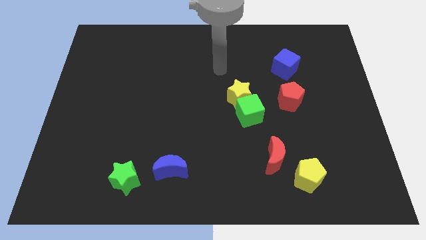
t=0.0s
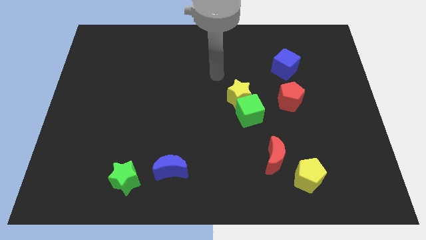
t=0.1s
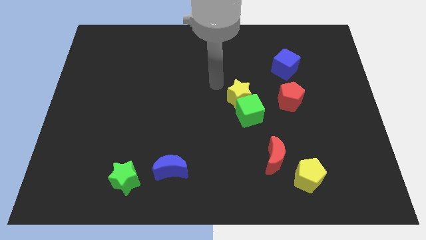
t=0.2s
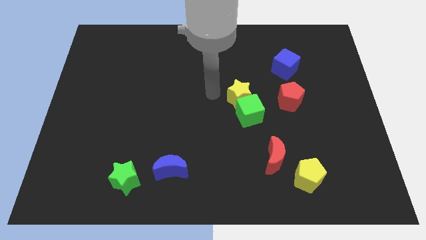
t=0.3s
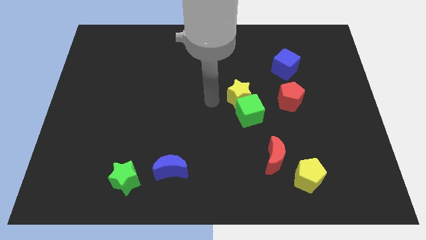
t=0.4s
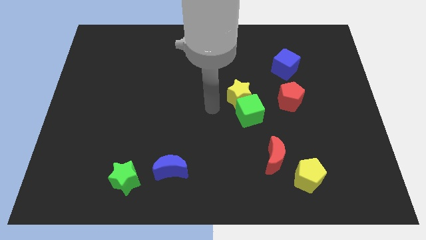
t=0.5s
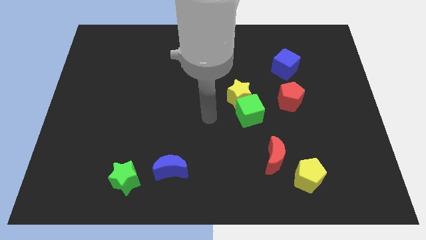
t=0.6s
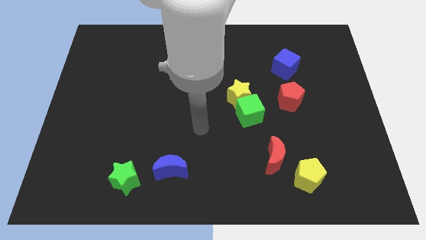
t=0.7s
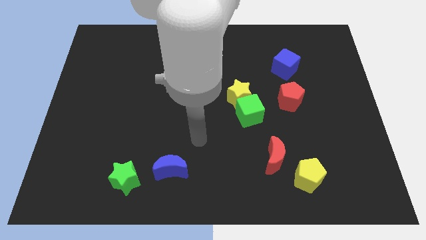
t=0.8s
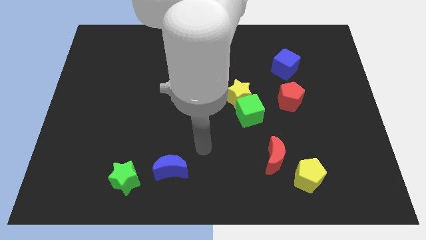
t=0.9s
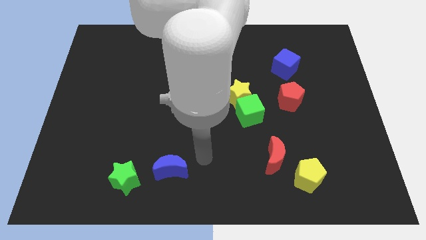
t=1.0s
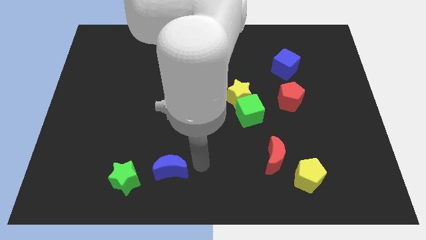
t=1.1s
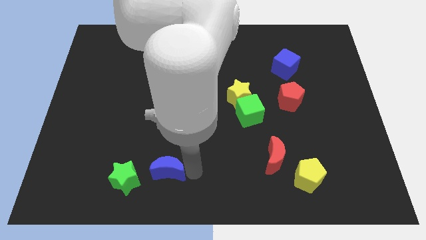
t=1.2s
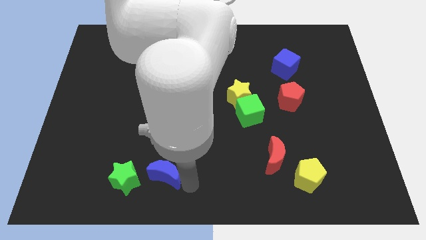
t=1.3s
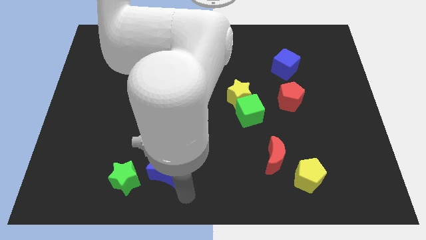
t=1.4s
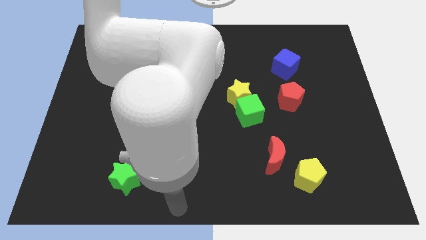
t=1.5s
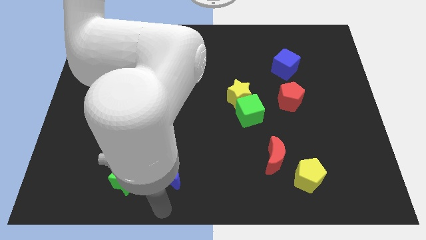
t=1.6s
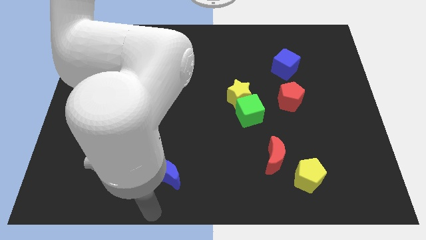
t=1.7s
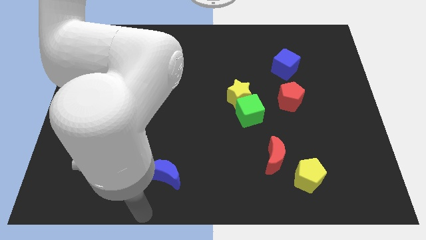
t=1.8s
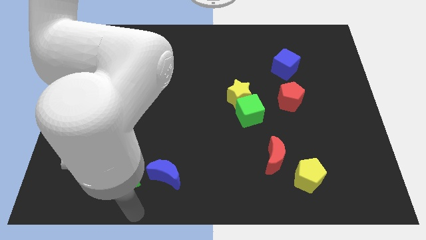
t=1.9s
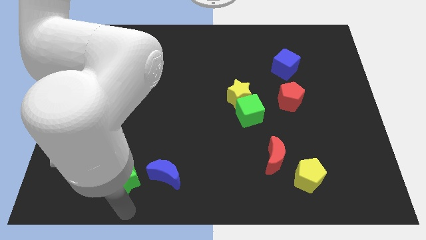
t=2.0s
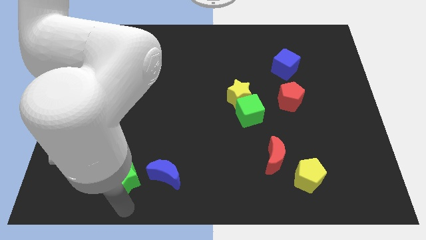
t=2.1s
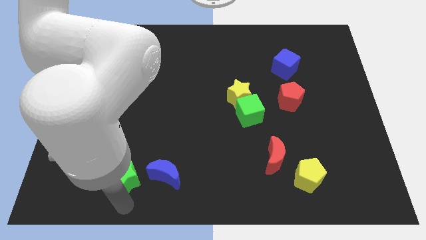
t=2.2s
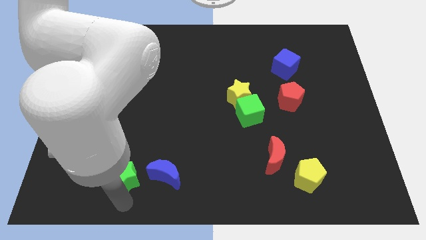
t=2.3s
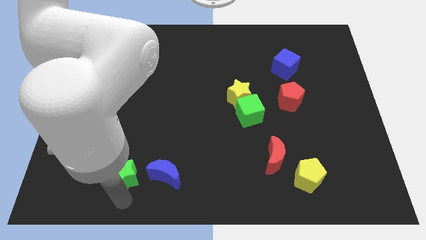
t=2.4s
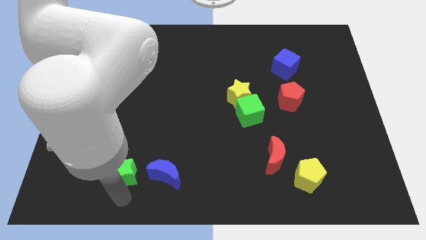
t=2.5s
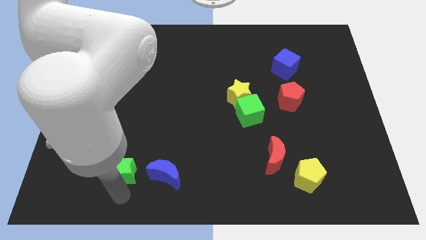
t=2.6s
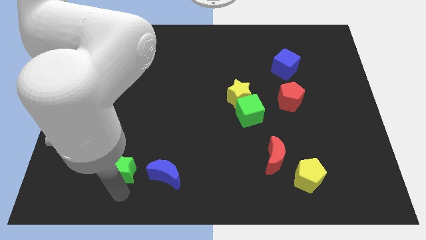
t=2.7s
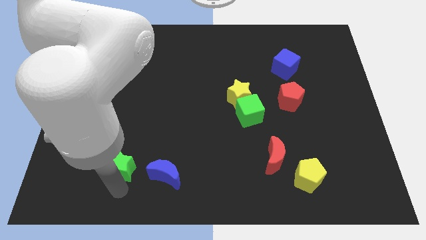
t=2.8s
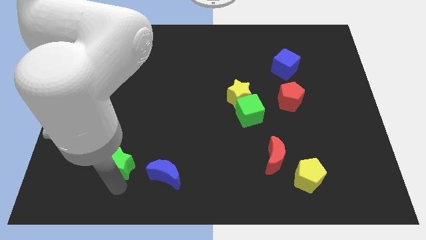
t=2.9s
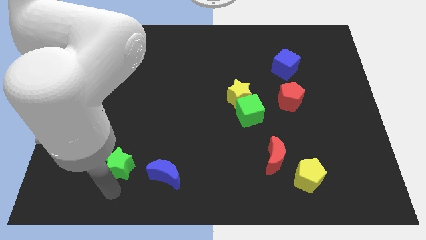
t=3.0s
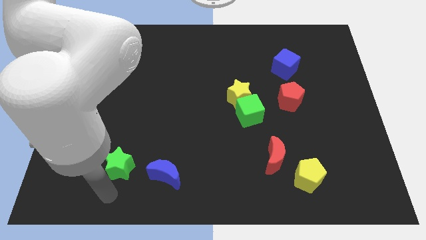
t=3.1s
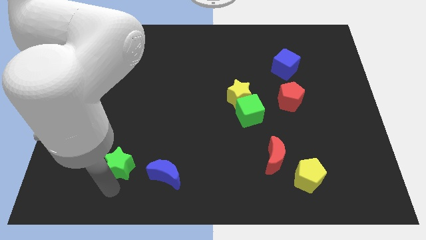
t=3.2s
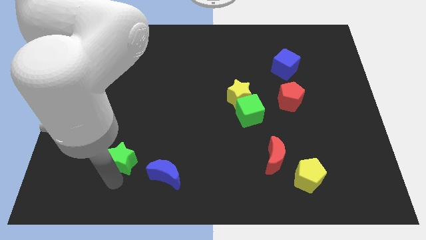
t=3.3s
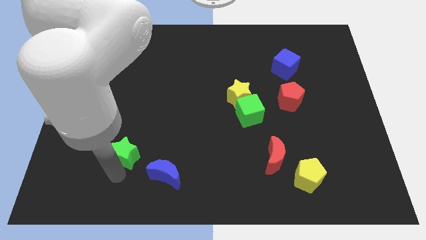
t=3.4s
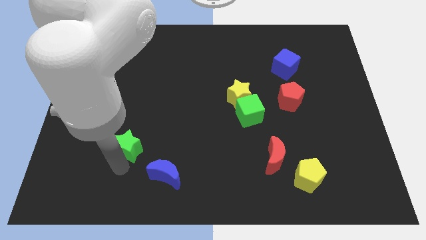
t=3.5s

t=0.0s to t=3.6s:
slide the green star up slightly

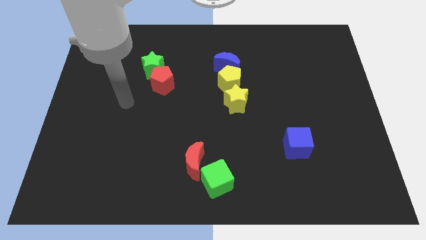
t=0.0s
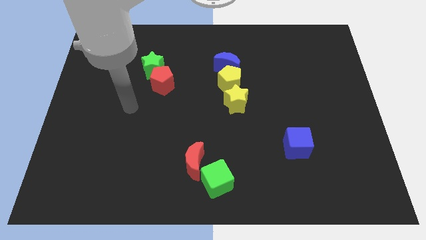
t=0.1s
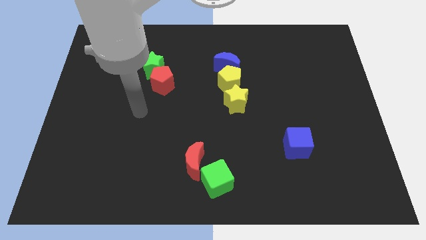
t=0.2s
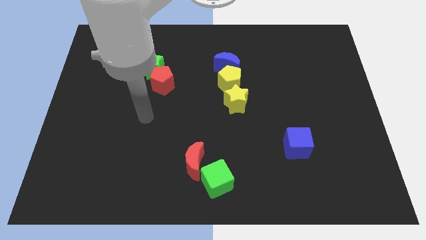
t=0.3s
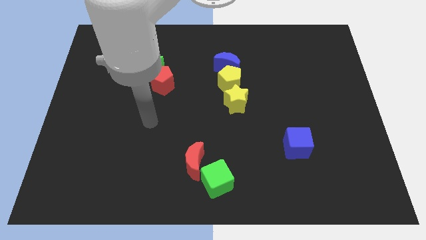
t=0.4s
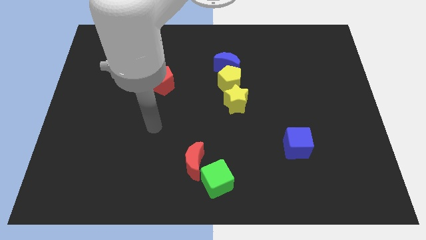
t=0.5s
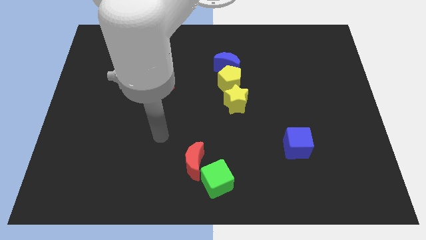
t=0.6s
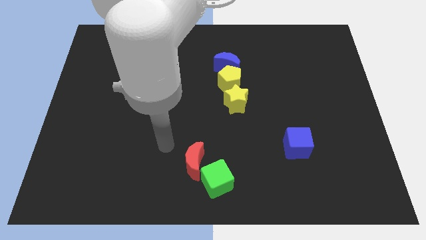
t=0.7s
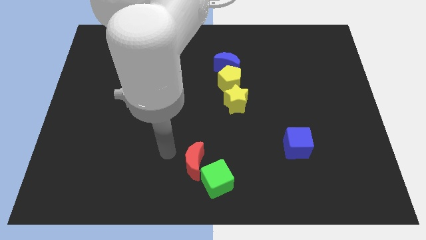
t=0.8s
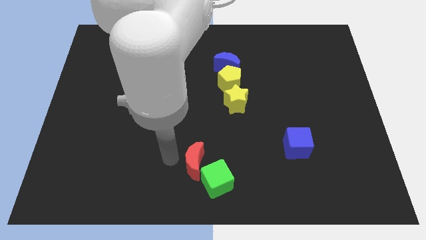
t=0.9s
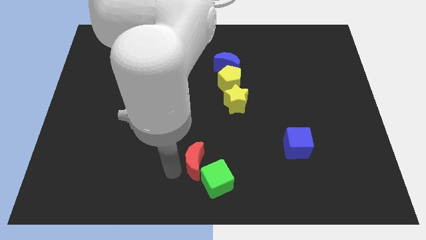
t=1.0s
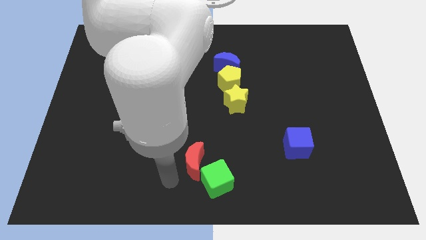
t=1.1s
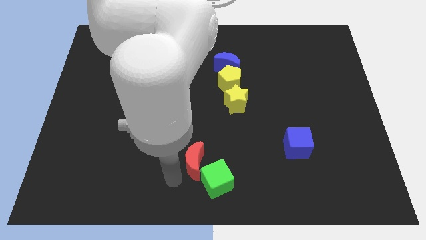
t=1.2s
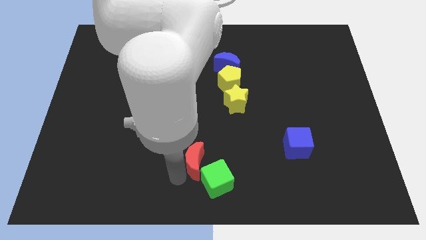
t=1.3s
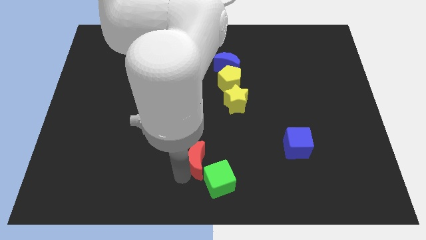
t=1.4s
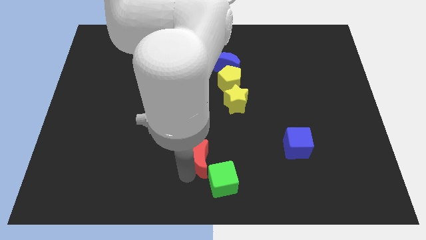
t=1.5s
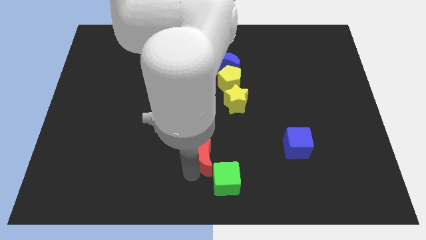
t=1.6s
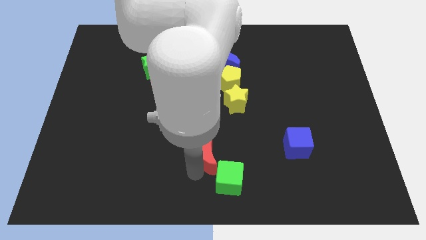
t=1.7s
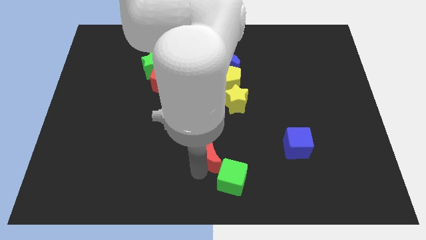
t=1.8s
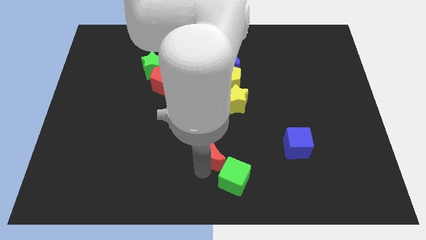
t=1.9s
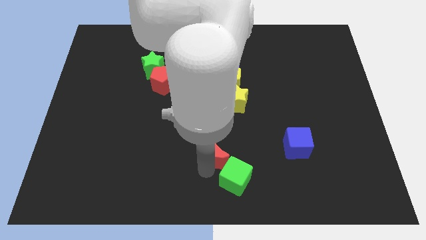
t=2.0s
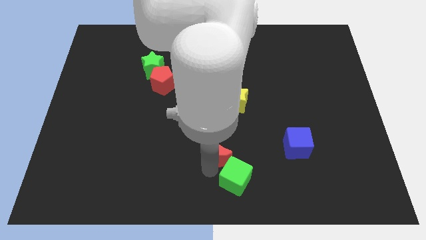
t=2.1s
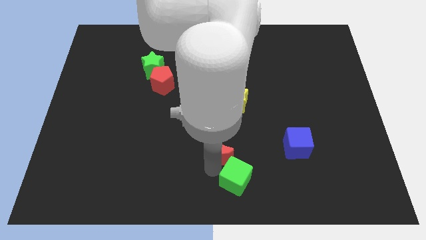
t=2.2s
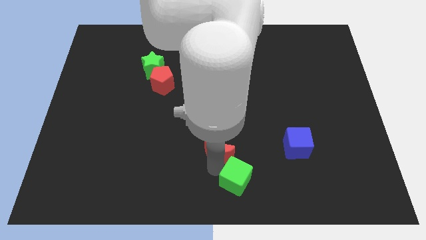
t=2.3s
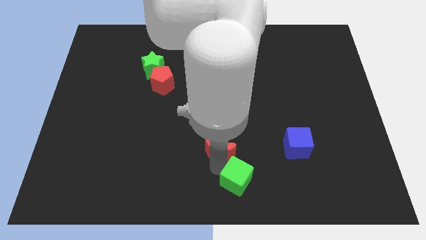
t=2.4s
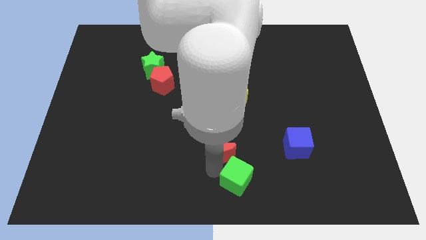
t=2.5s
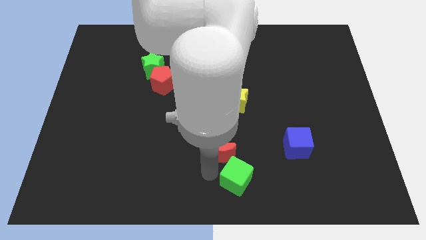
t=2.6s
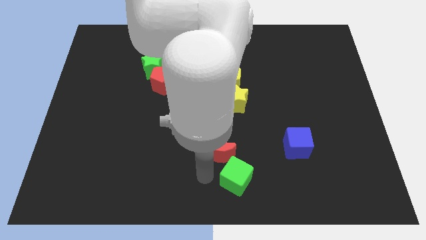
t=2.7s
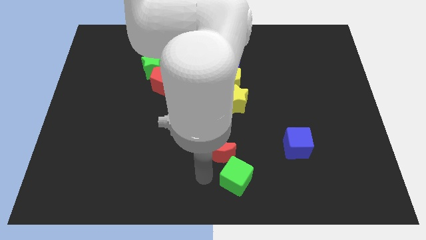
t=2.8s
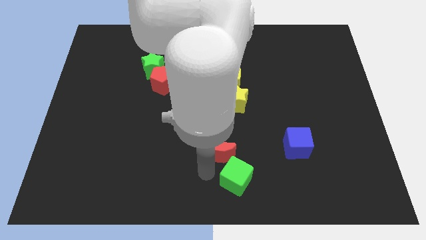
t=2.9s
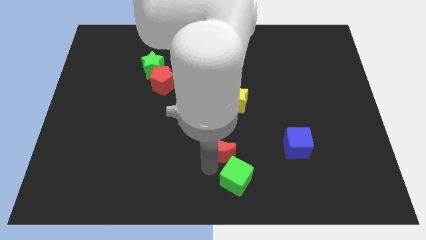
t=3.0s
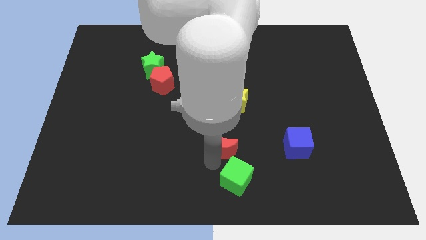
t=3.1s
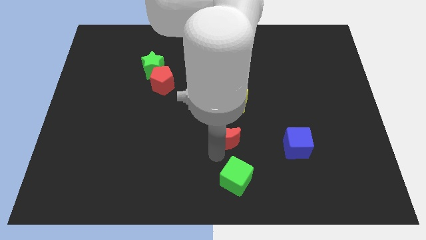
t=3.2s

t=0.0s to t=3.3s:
slightly move the red moon up and then right

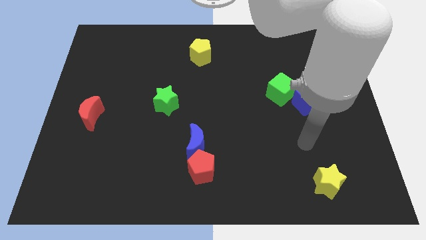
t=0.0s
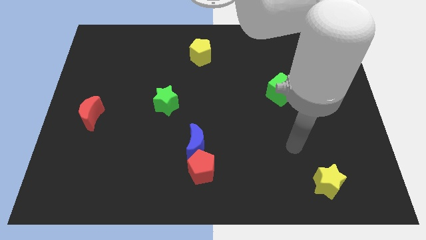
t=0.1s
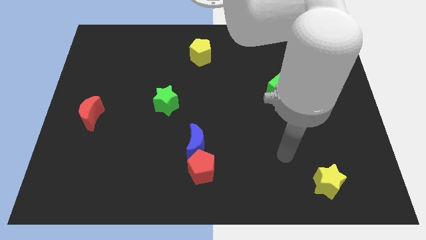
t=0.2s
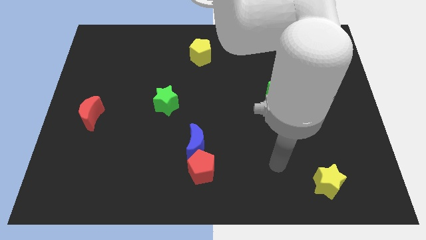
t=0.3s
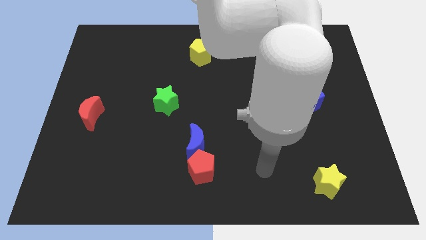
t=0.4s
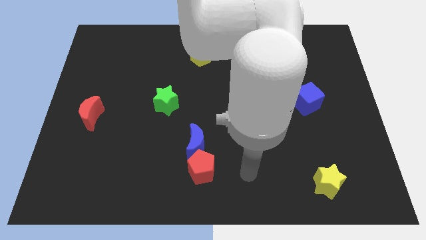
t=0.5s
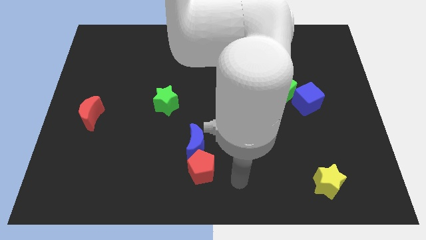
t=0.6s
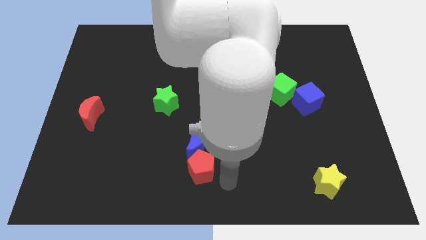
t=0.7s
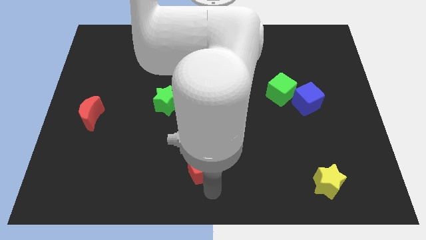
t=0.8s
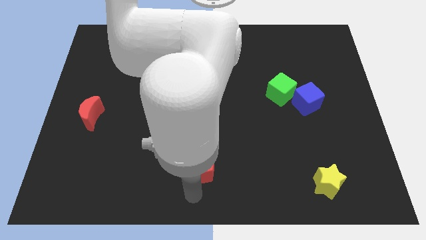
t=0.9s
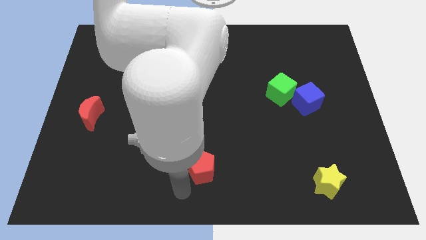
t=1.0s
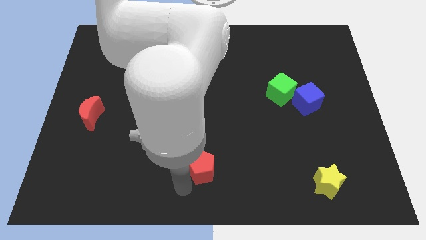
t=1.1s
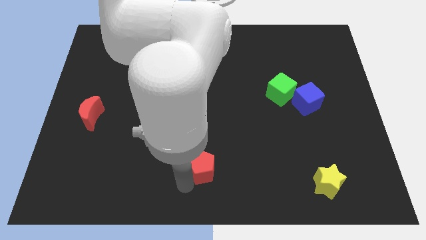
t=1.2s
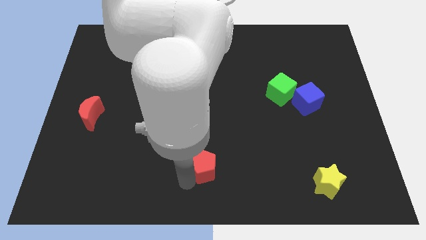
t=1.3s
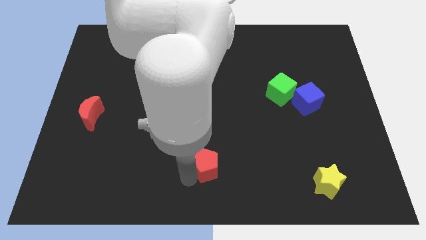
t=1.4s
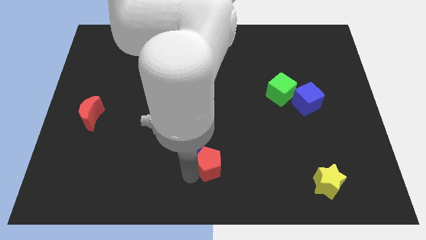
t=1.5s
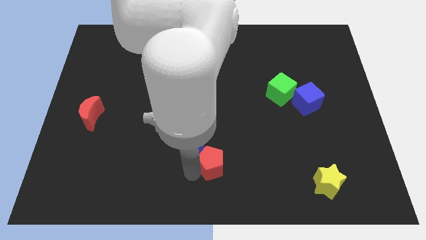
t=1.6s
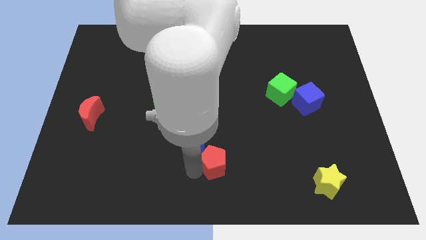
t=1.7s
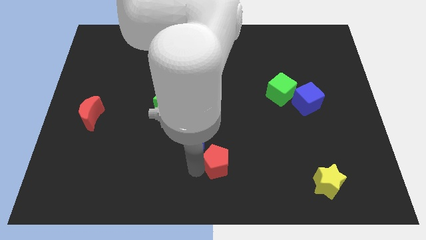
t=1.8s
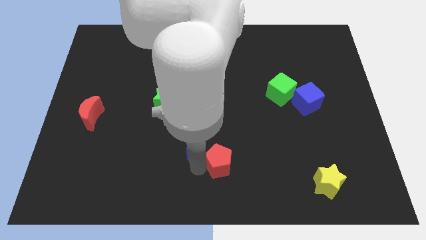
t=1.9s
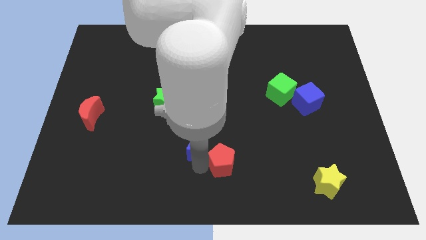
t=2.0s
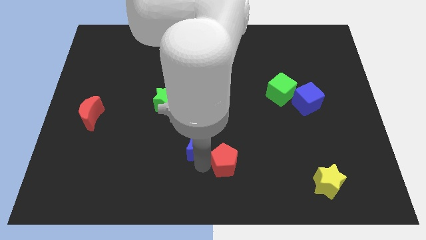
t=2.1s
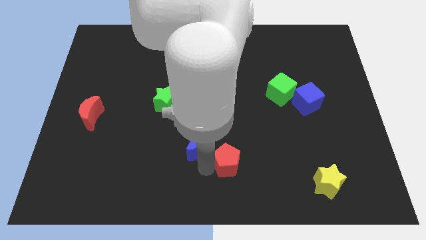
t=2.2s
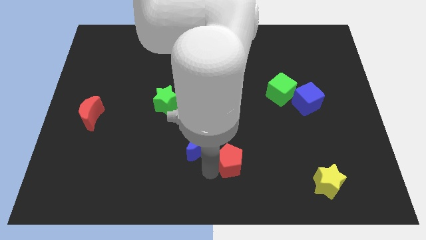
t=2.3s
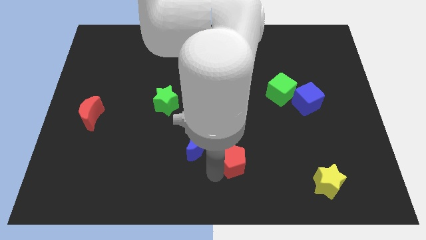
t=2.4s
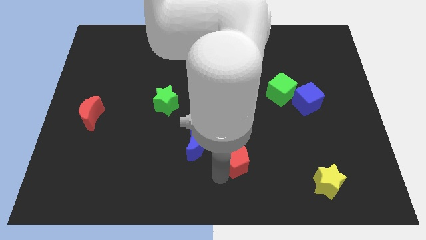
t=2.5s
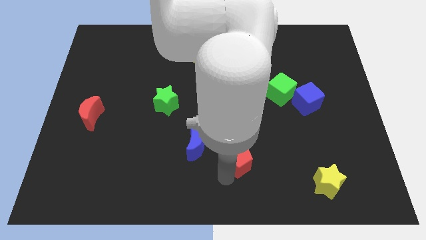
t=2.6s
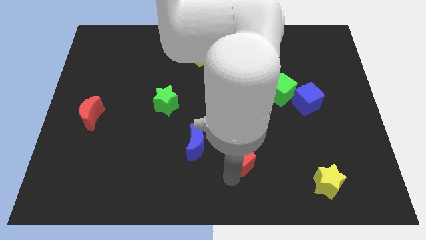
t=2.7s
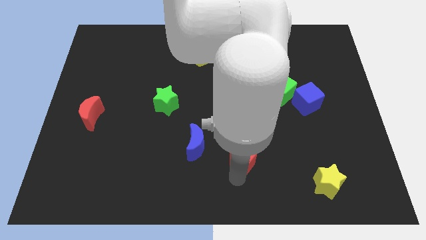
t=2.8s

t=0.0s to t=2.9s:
slide the red pentagon slightly diagonally upwards and to the right
